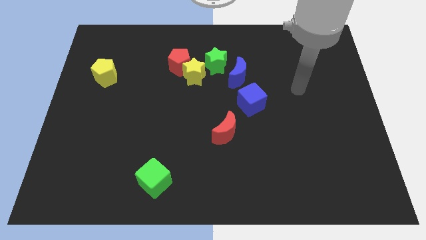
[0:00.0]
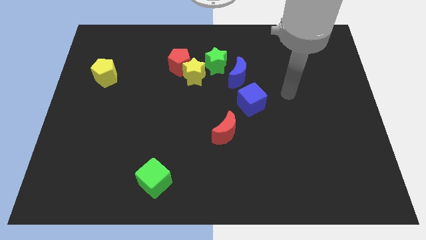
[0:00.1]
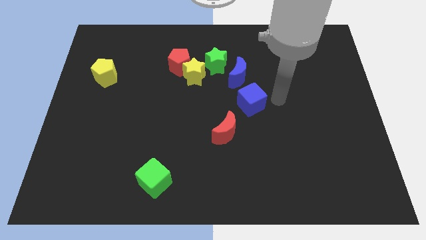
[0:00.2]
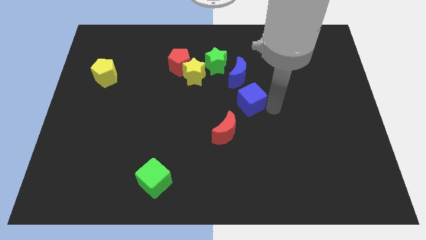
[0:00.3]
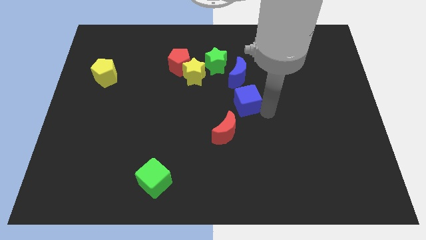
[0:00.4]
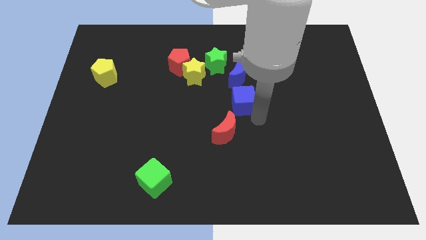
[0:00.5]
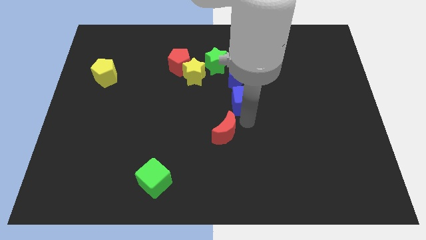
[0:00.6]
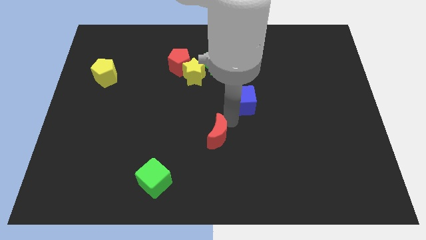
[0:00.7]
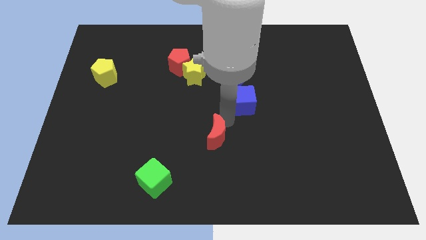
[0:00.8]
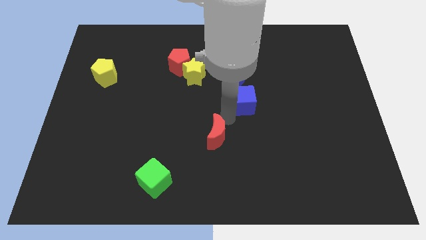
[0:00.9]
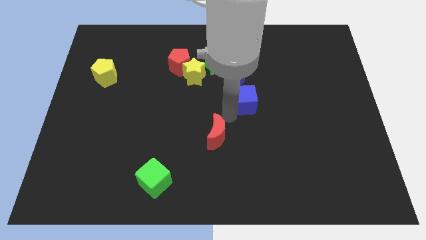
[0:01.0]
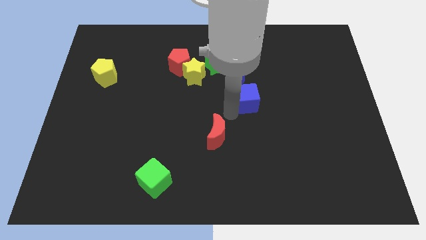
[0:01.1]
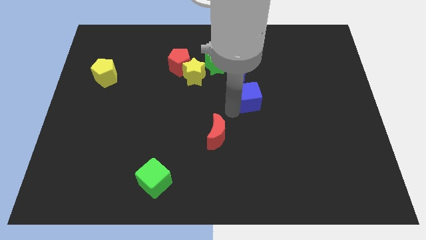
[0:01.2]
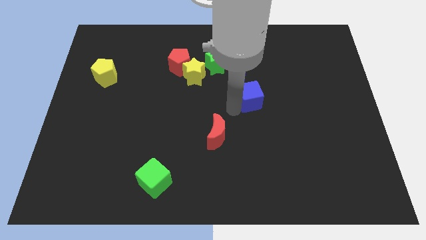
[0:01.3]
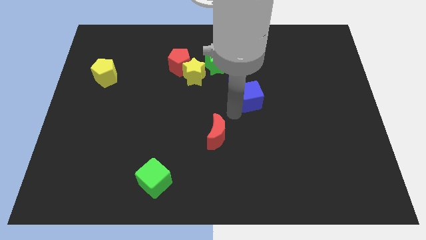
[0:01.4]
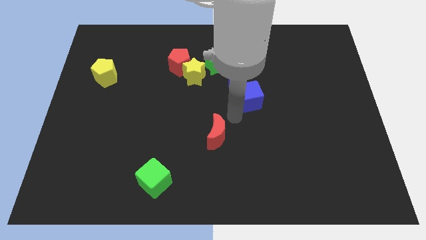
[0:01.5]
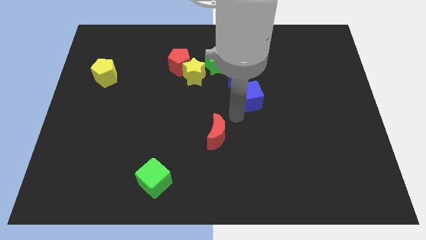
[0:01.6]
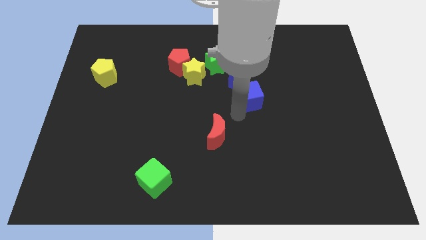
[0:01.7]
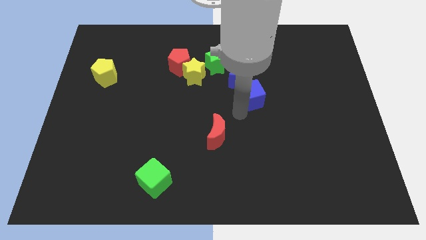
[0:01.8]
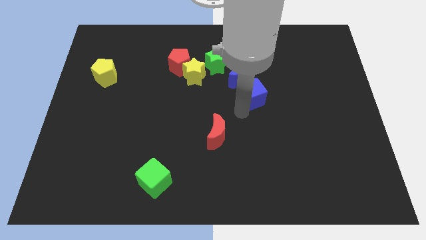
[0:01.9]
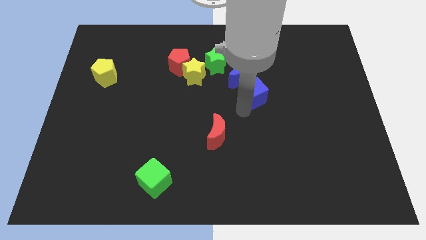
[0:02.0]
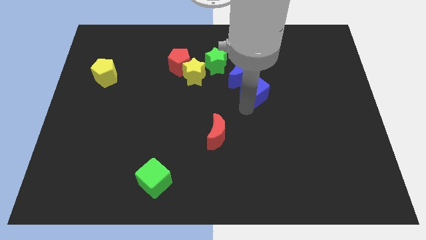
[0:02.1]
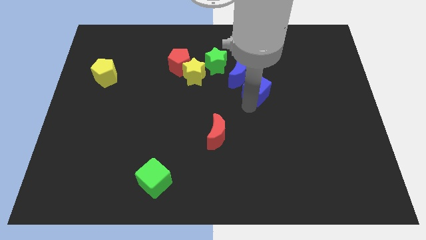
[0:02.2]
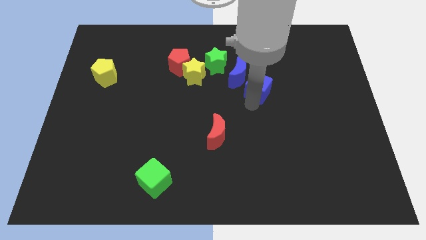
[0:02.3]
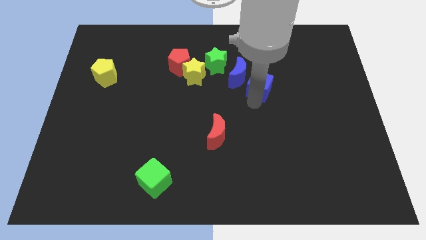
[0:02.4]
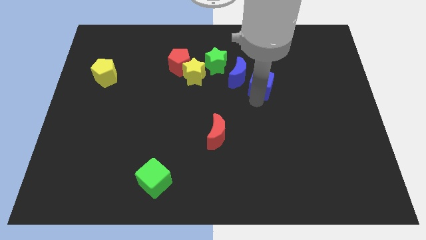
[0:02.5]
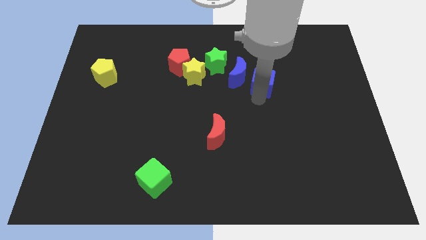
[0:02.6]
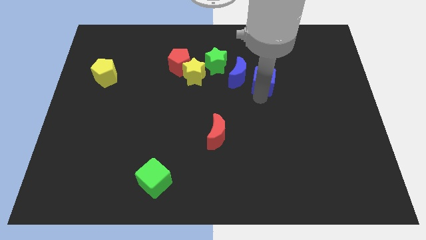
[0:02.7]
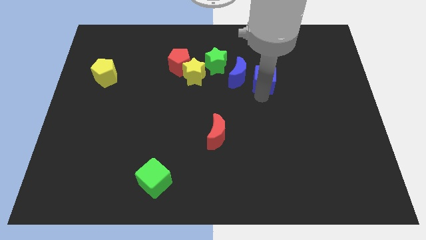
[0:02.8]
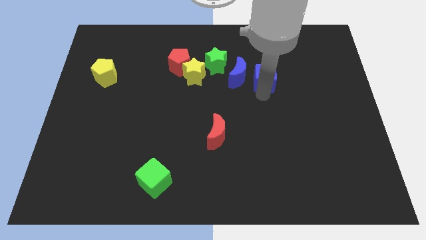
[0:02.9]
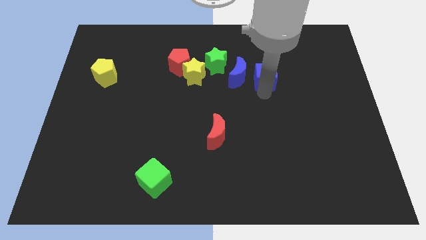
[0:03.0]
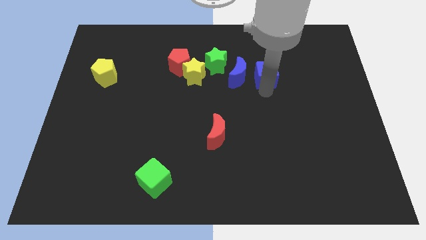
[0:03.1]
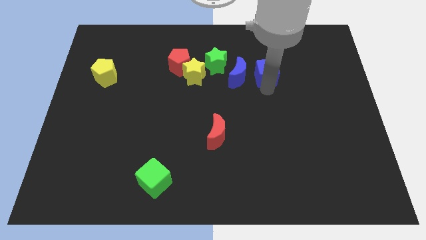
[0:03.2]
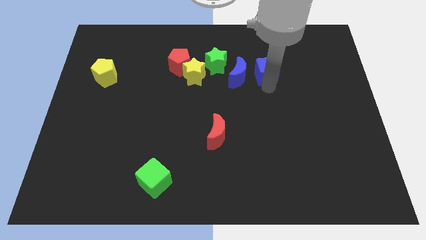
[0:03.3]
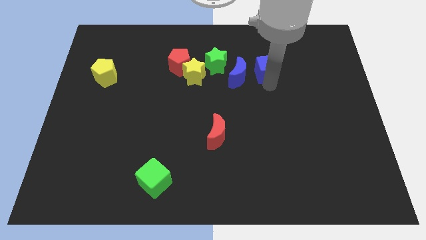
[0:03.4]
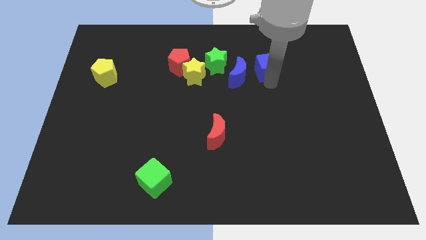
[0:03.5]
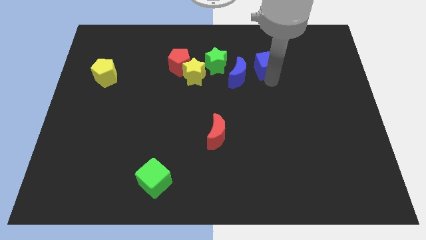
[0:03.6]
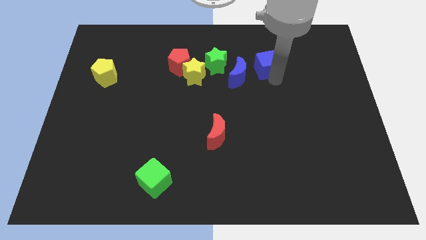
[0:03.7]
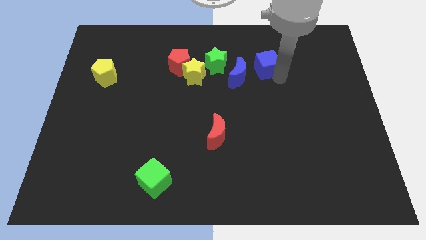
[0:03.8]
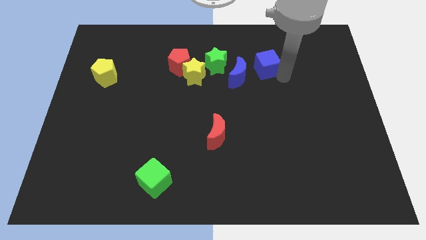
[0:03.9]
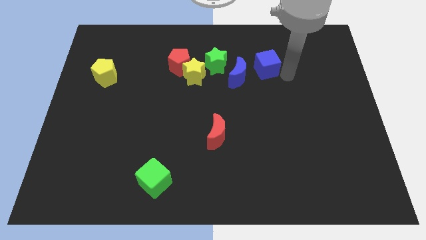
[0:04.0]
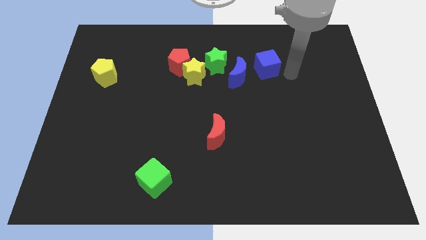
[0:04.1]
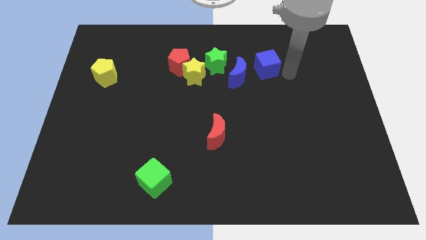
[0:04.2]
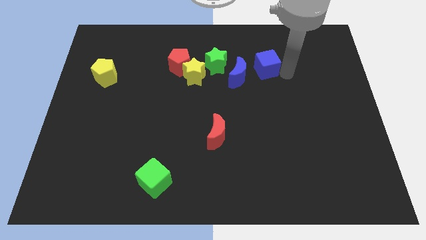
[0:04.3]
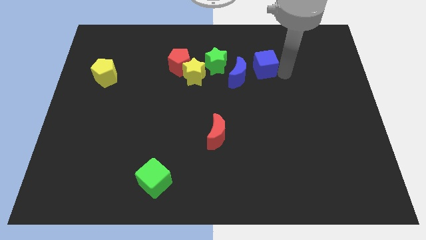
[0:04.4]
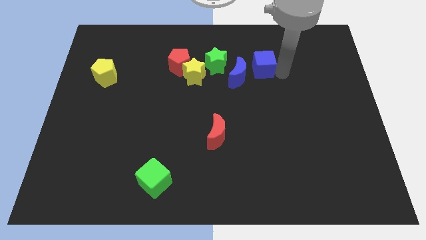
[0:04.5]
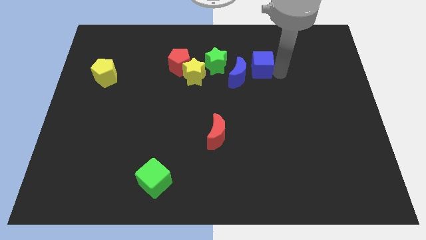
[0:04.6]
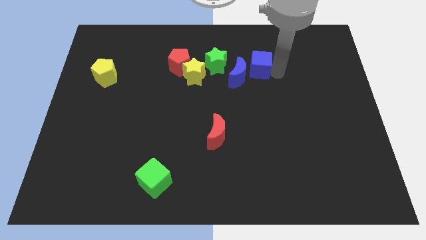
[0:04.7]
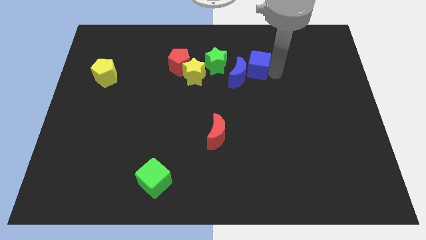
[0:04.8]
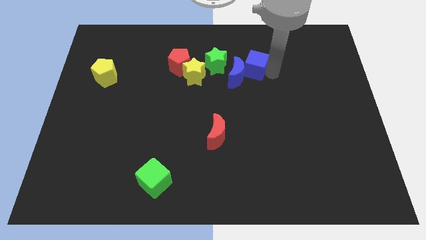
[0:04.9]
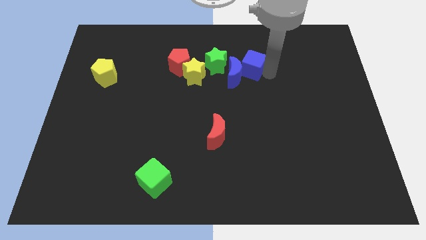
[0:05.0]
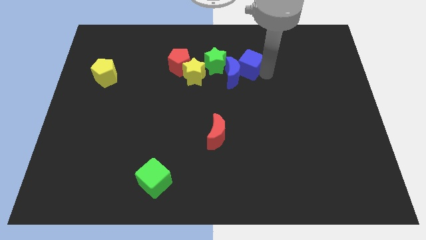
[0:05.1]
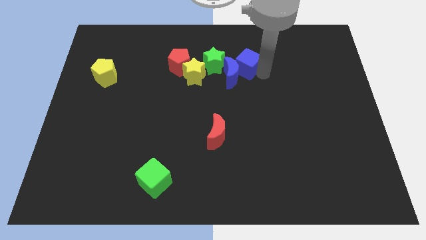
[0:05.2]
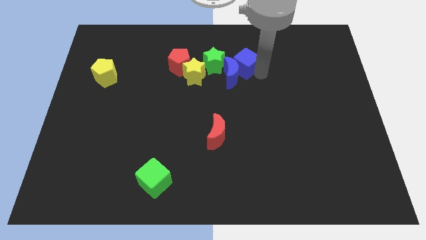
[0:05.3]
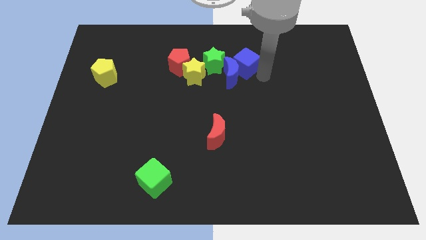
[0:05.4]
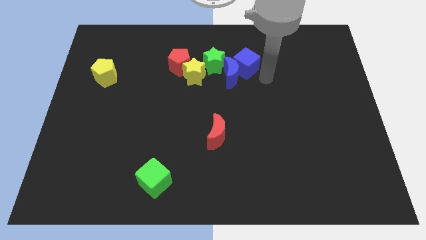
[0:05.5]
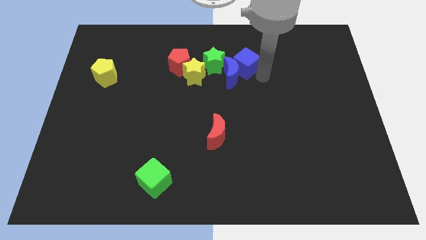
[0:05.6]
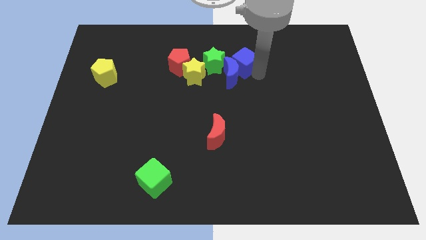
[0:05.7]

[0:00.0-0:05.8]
slightly slide the blue cube up and to the left diagonally

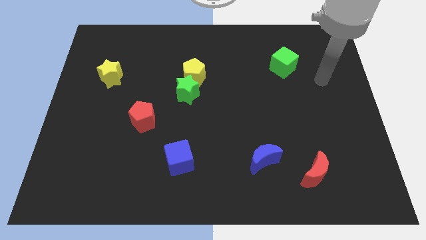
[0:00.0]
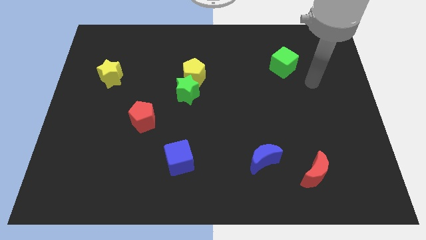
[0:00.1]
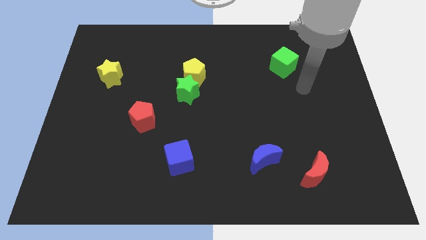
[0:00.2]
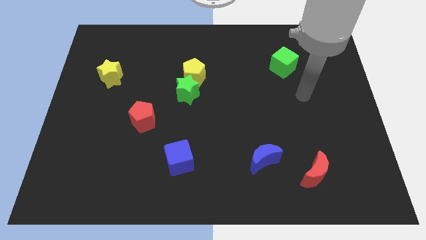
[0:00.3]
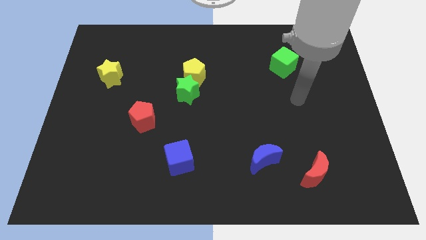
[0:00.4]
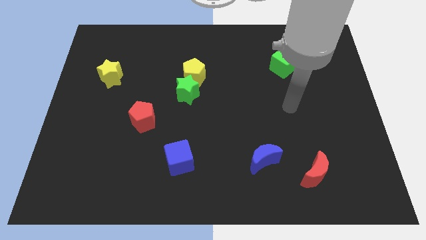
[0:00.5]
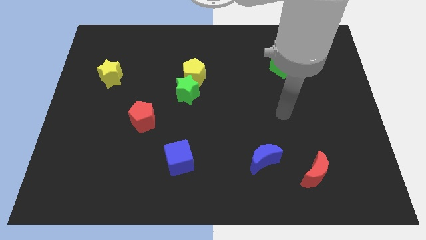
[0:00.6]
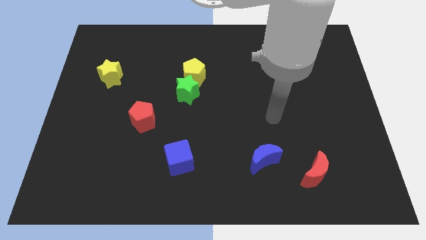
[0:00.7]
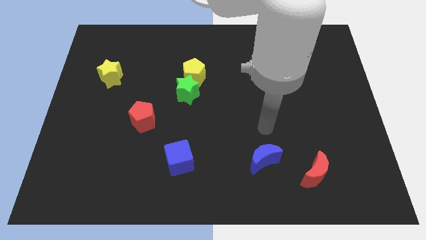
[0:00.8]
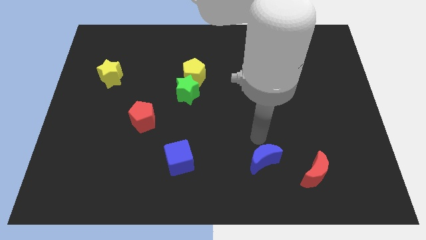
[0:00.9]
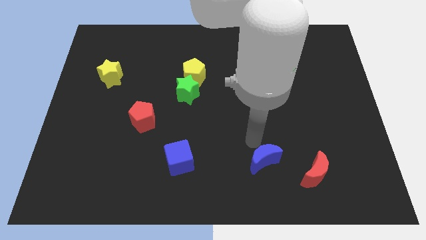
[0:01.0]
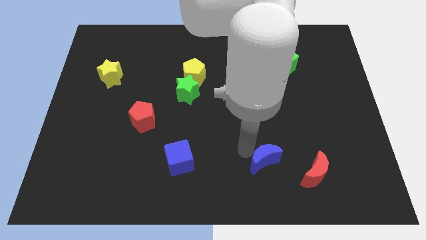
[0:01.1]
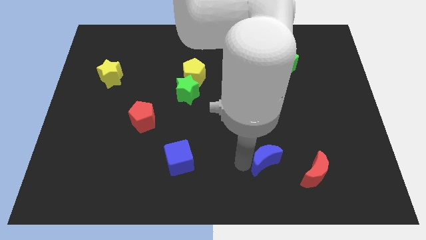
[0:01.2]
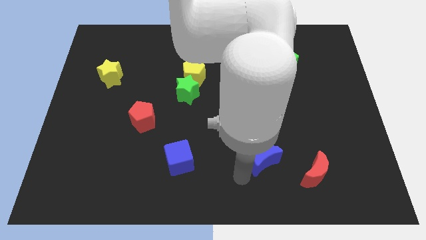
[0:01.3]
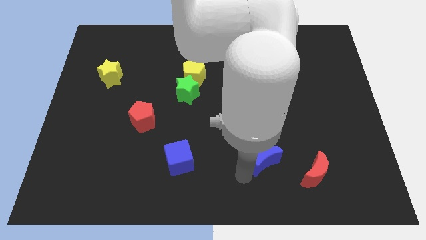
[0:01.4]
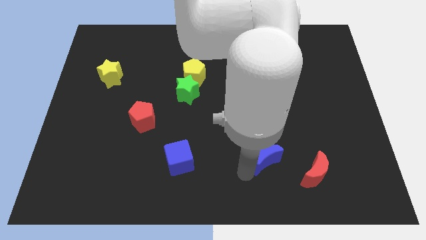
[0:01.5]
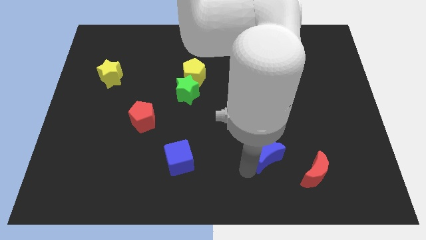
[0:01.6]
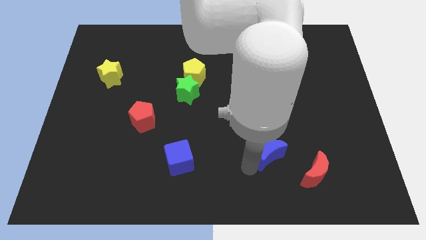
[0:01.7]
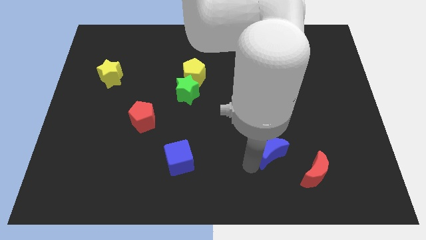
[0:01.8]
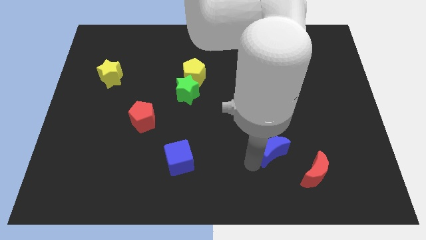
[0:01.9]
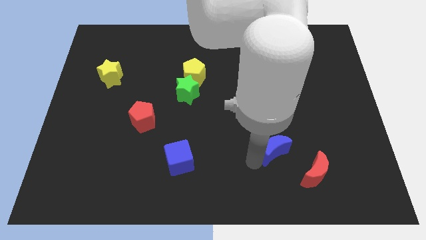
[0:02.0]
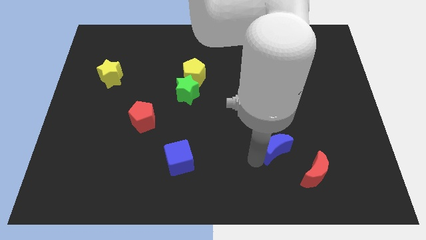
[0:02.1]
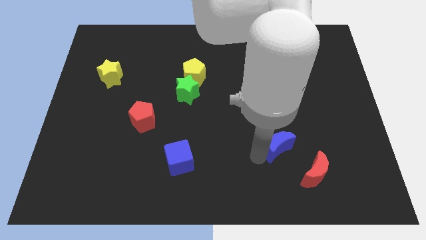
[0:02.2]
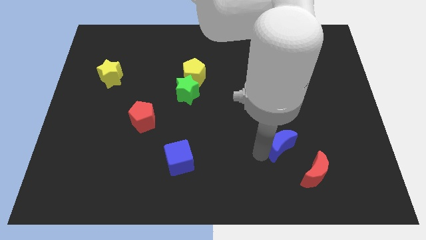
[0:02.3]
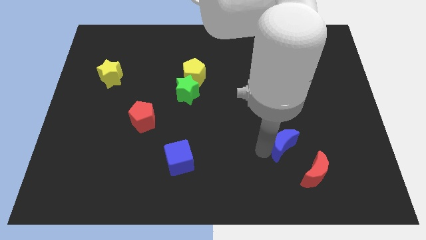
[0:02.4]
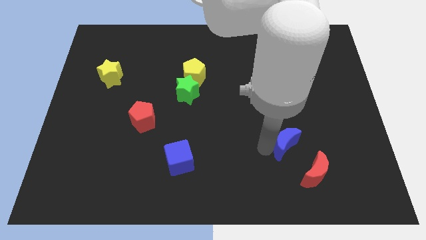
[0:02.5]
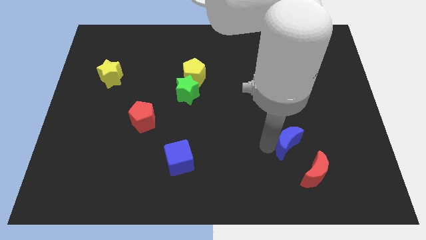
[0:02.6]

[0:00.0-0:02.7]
push the blue moon up and to the right diagonally slightly
